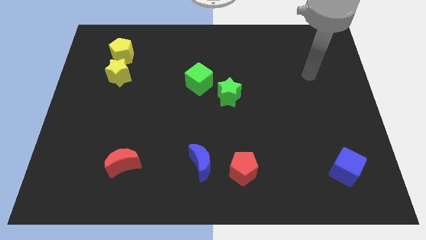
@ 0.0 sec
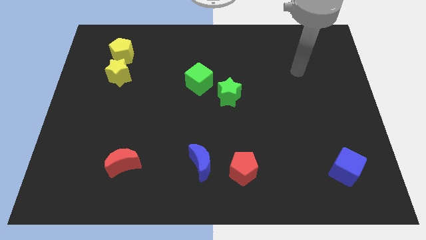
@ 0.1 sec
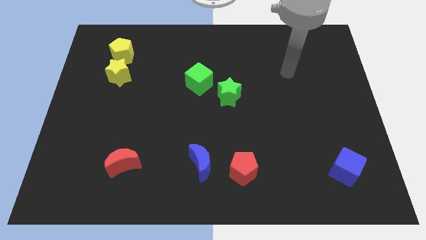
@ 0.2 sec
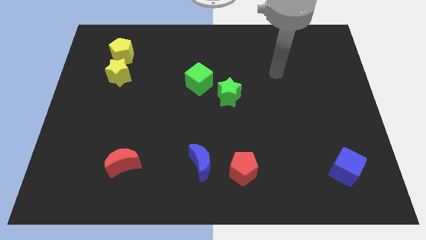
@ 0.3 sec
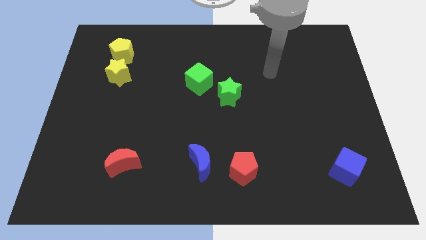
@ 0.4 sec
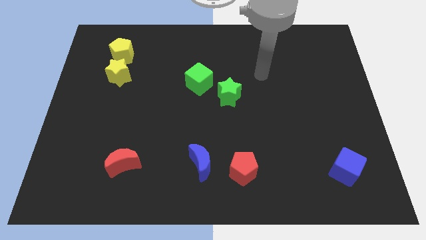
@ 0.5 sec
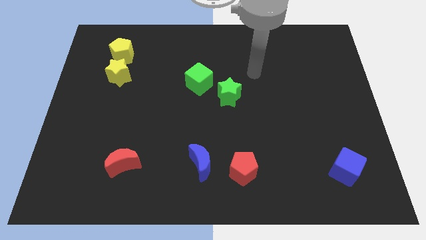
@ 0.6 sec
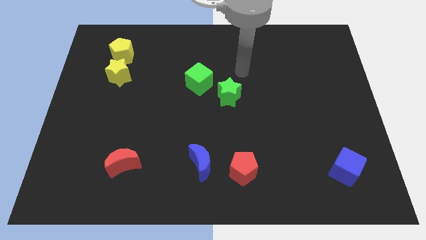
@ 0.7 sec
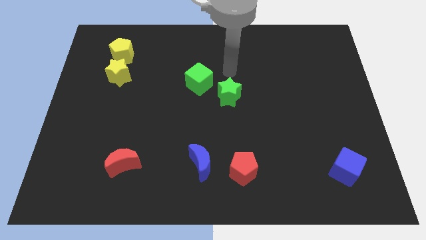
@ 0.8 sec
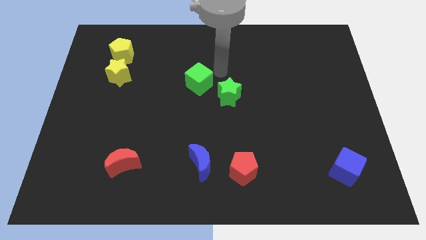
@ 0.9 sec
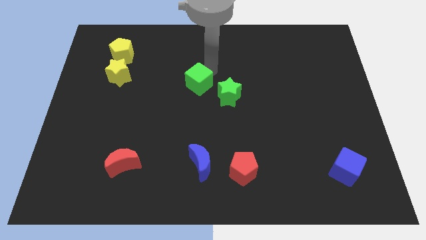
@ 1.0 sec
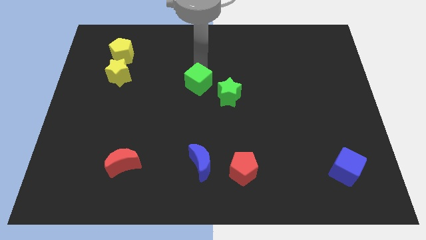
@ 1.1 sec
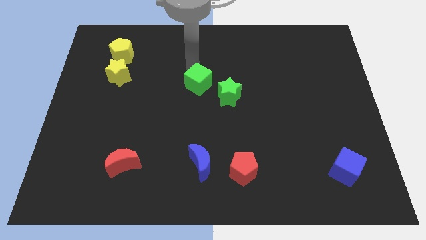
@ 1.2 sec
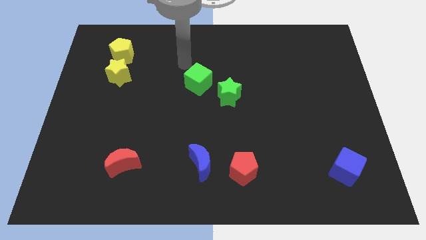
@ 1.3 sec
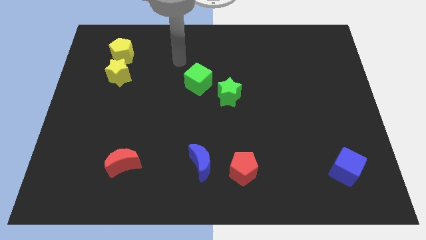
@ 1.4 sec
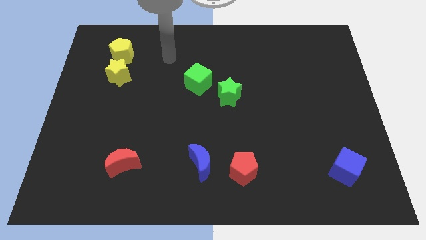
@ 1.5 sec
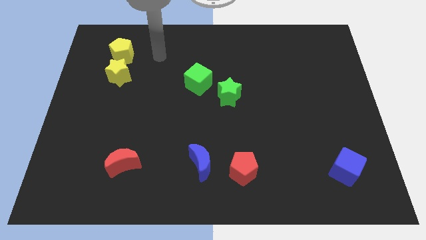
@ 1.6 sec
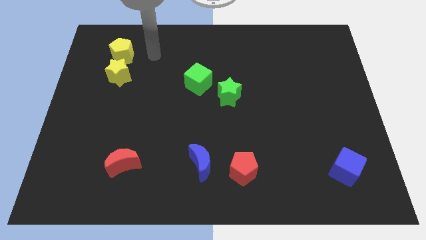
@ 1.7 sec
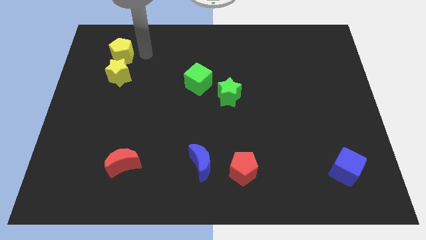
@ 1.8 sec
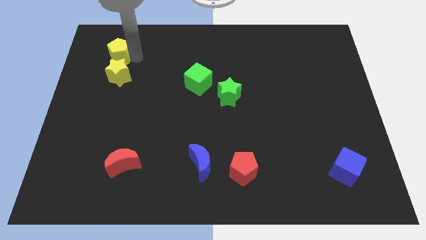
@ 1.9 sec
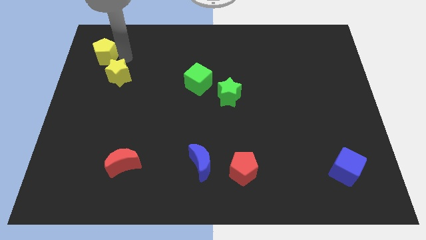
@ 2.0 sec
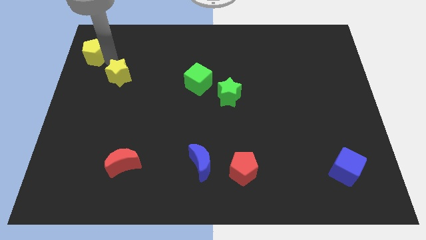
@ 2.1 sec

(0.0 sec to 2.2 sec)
move the yellow star away from the yellow pentagon

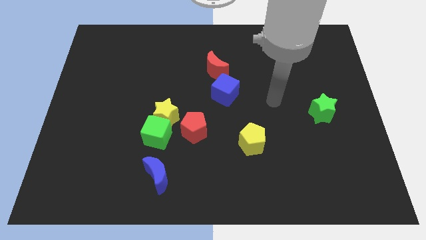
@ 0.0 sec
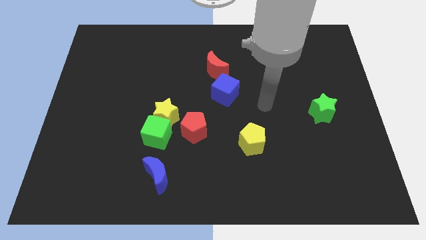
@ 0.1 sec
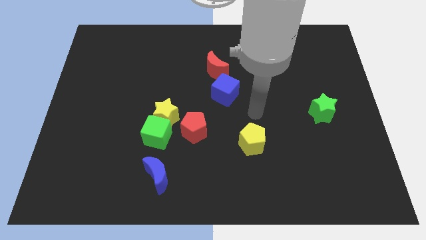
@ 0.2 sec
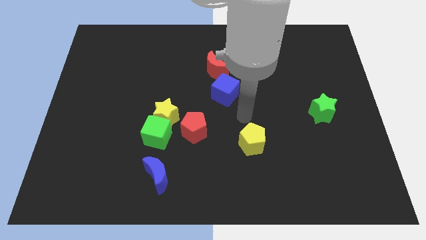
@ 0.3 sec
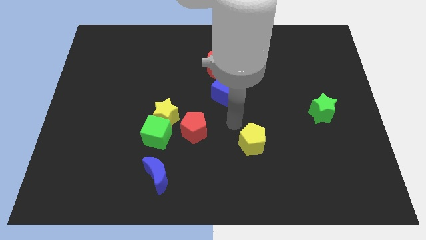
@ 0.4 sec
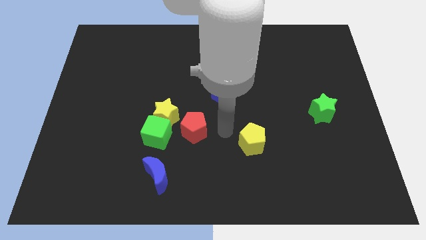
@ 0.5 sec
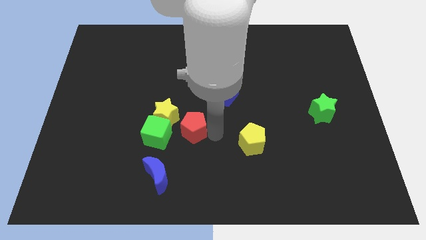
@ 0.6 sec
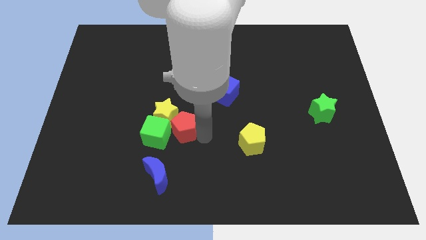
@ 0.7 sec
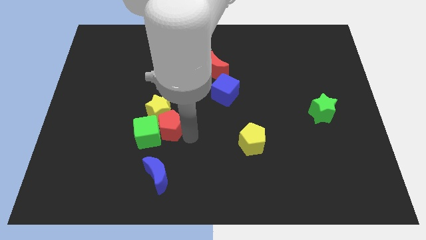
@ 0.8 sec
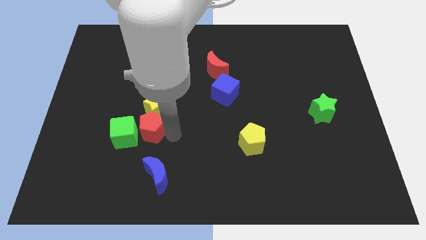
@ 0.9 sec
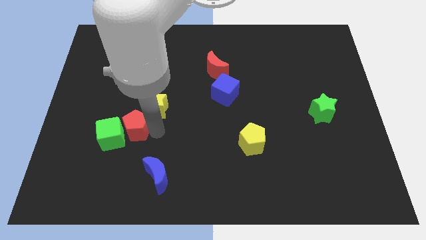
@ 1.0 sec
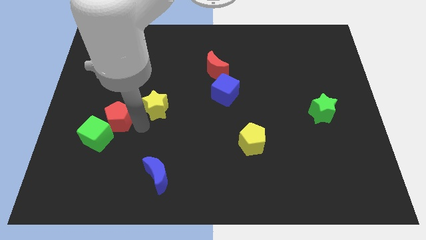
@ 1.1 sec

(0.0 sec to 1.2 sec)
move the yellow star away from the green cube and red pentagon

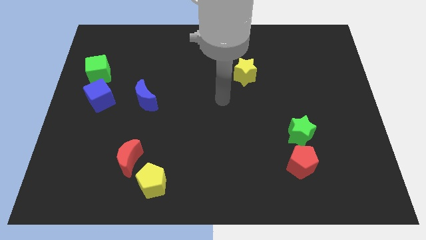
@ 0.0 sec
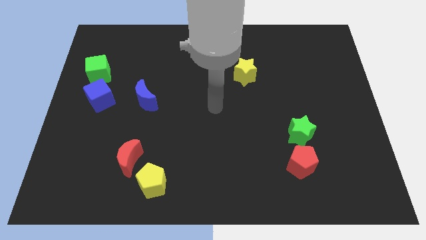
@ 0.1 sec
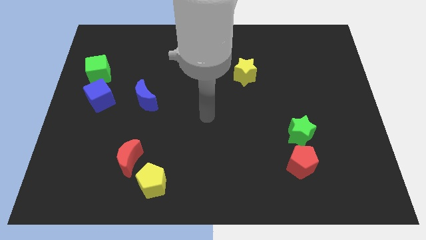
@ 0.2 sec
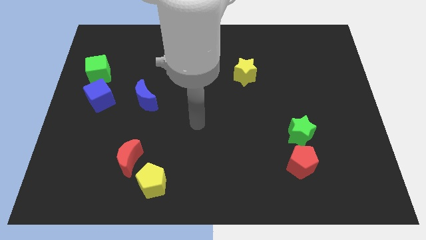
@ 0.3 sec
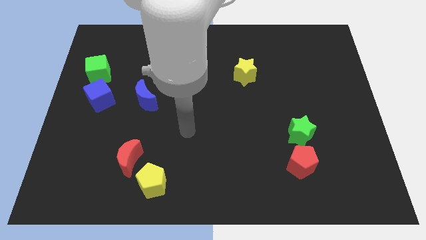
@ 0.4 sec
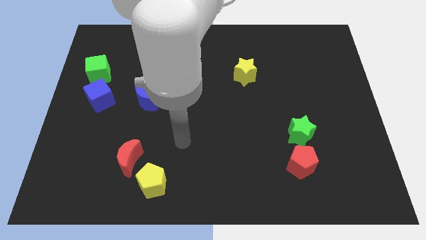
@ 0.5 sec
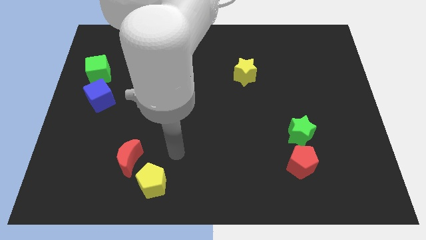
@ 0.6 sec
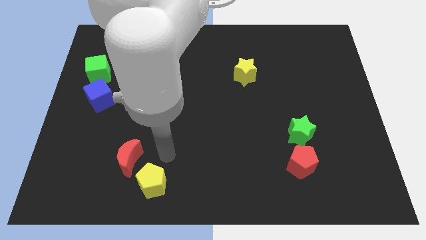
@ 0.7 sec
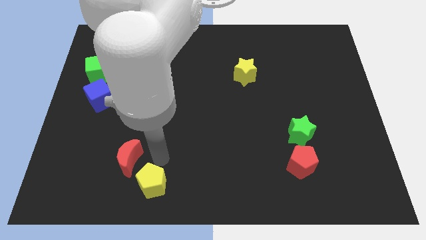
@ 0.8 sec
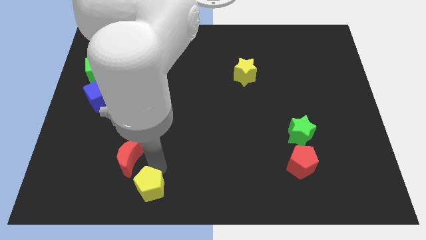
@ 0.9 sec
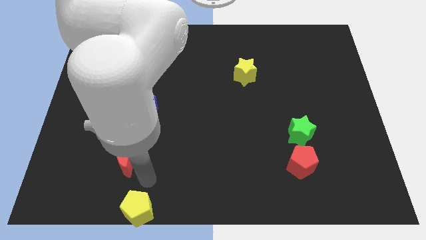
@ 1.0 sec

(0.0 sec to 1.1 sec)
separate the red moon from the yellow pentagon

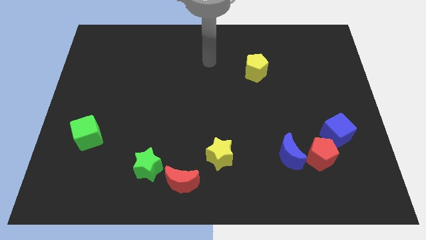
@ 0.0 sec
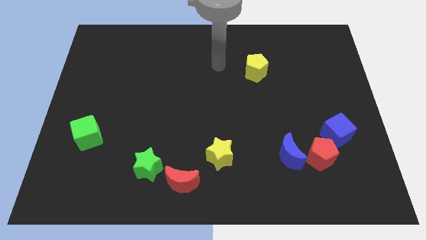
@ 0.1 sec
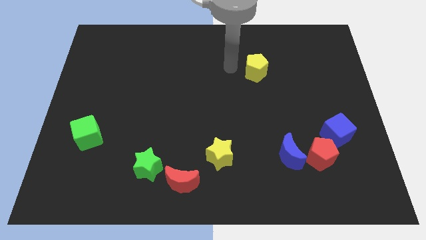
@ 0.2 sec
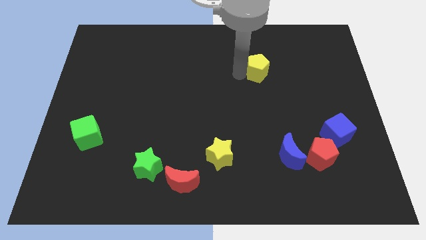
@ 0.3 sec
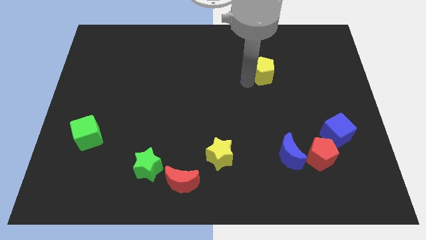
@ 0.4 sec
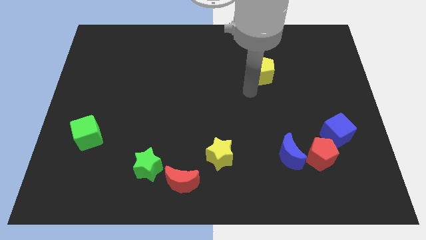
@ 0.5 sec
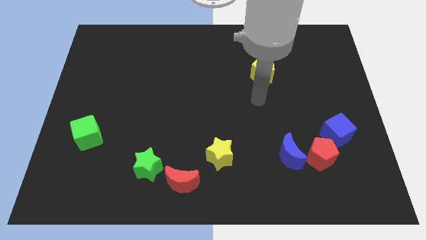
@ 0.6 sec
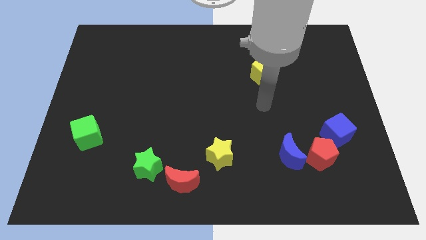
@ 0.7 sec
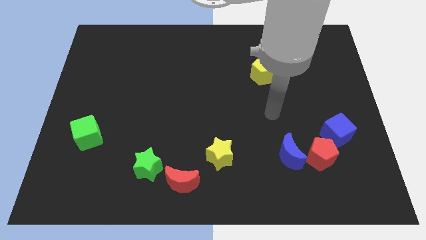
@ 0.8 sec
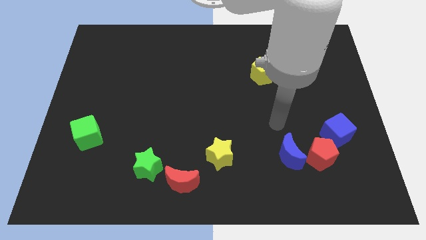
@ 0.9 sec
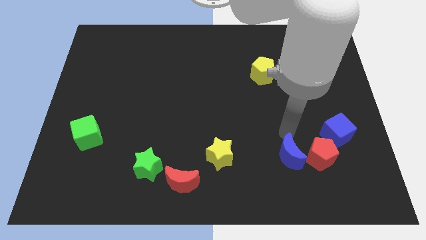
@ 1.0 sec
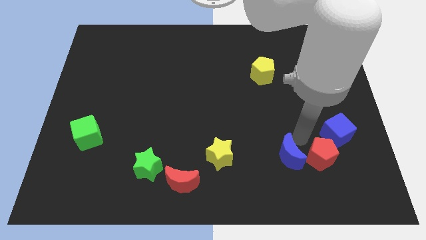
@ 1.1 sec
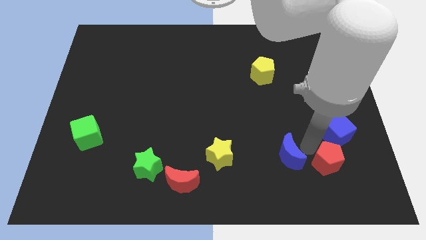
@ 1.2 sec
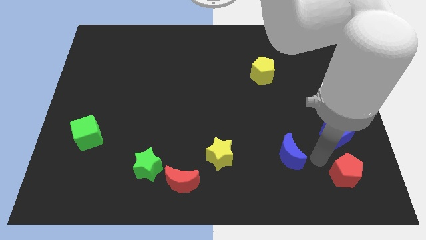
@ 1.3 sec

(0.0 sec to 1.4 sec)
separate the blue moon from the red pentagon

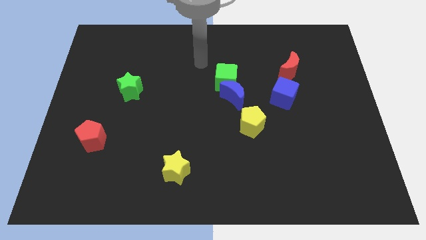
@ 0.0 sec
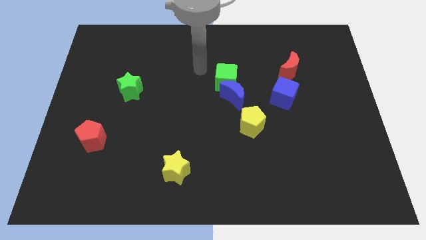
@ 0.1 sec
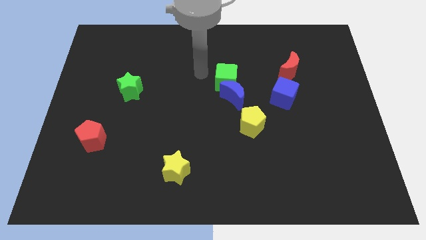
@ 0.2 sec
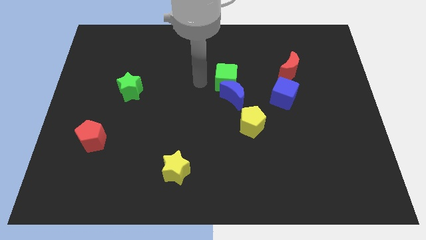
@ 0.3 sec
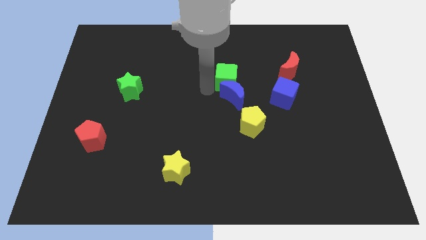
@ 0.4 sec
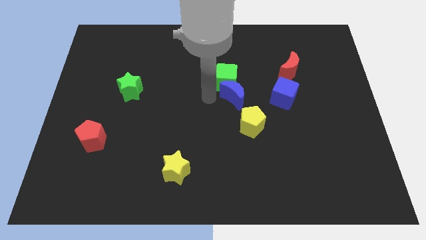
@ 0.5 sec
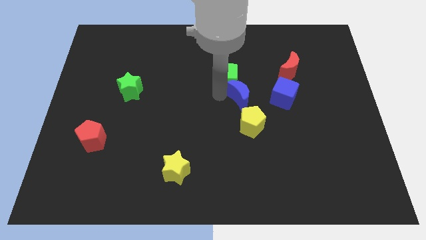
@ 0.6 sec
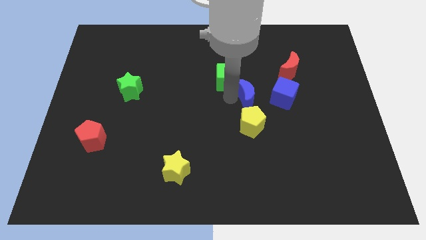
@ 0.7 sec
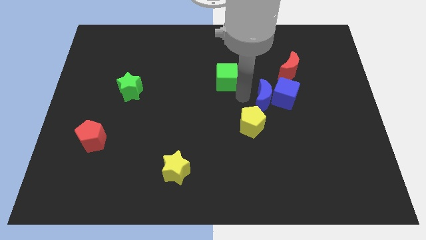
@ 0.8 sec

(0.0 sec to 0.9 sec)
pull the green cube apart from the blue moon

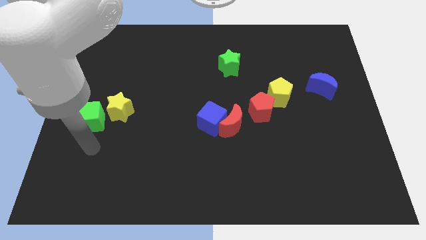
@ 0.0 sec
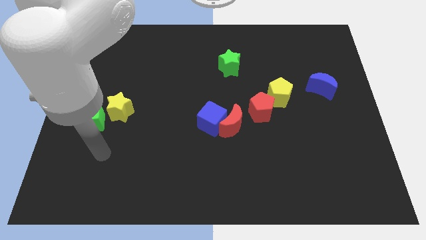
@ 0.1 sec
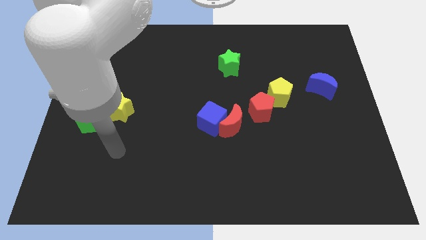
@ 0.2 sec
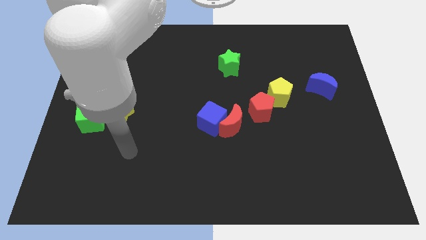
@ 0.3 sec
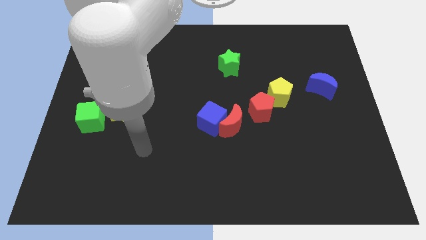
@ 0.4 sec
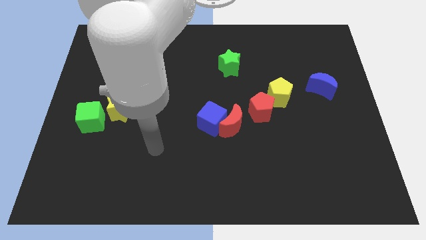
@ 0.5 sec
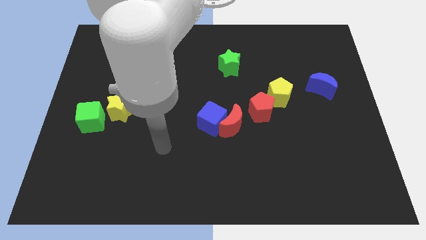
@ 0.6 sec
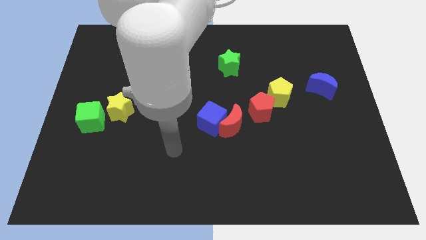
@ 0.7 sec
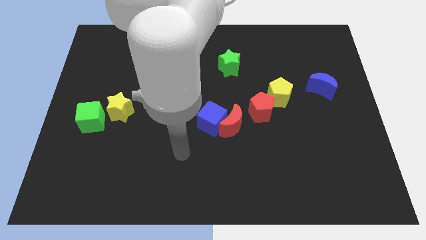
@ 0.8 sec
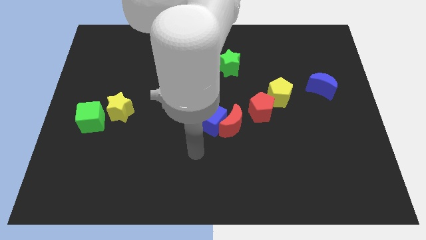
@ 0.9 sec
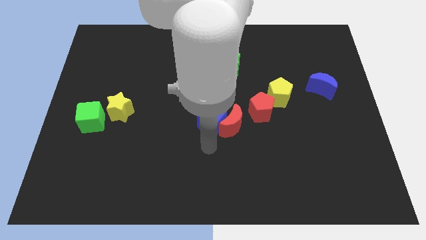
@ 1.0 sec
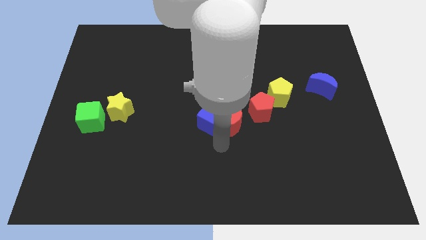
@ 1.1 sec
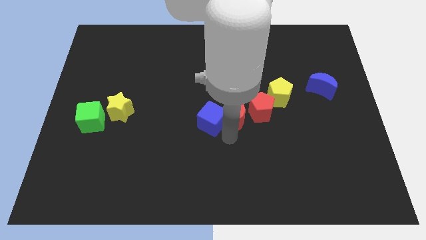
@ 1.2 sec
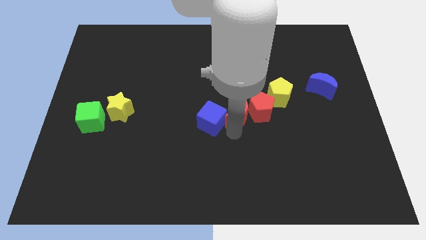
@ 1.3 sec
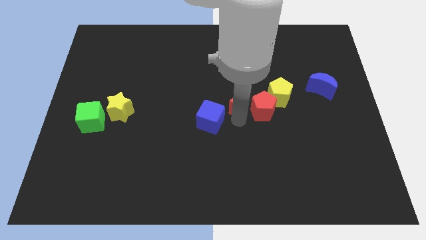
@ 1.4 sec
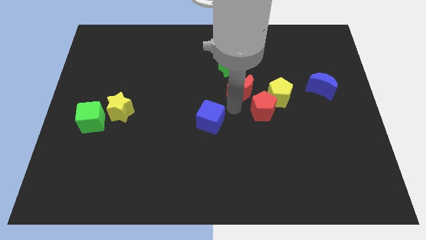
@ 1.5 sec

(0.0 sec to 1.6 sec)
move the blue cube away from the red moon

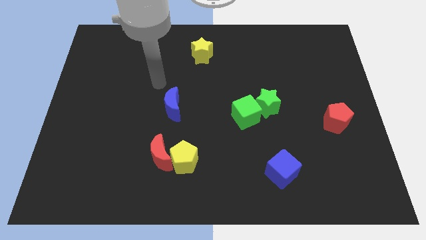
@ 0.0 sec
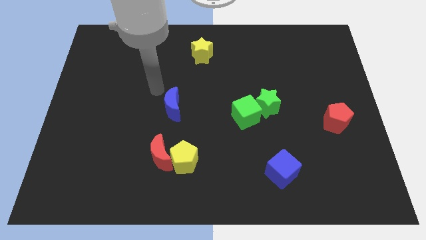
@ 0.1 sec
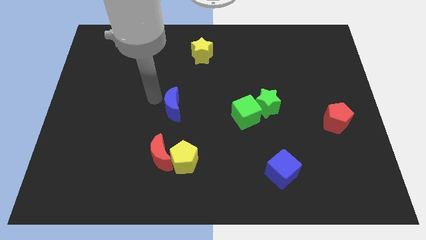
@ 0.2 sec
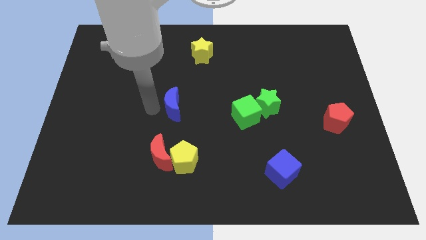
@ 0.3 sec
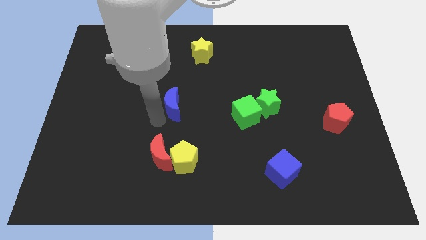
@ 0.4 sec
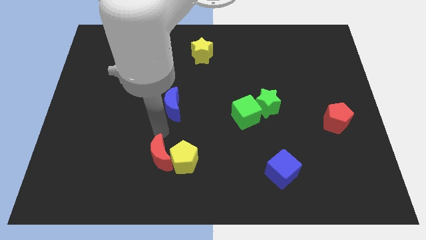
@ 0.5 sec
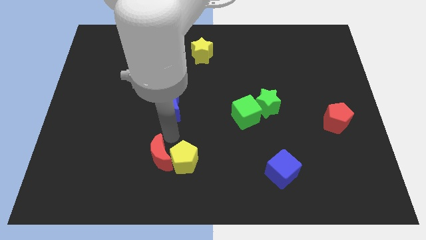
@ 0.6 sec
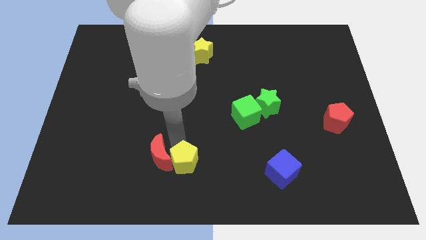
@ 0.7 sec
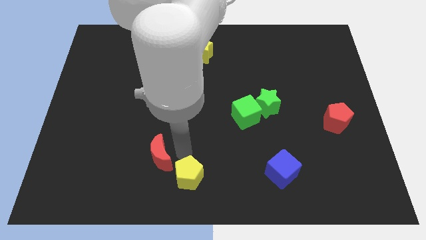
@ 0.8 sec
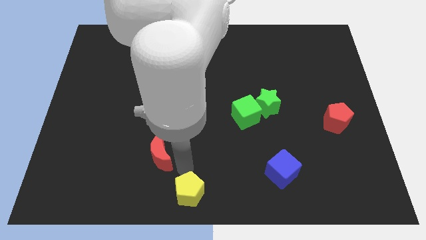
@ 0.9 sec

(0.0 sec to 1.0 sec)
pull the red moon apart from the yellow pentagon
